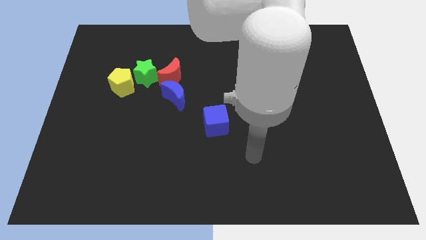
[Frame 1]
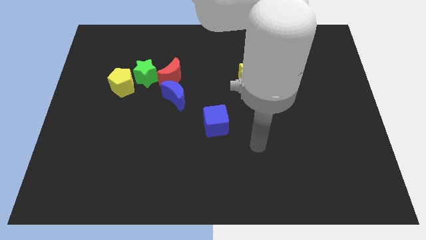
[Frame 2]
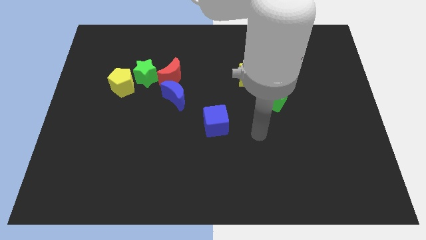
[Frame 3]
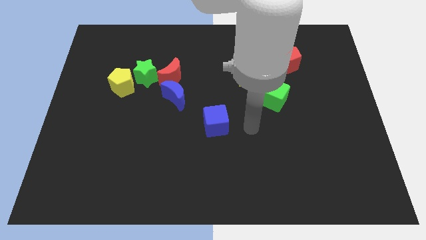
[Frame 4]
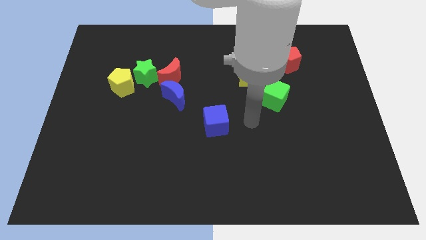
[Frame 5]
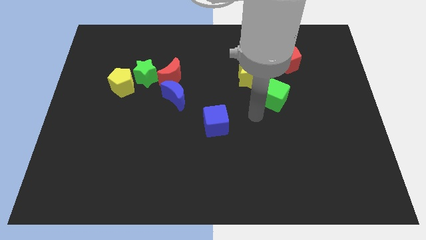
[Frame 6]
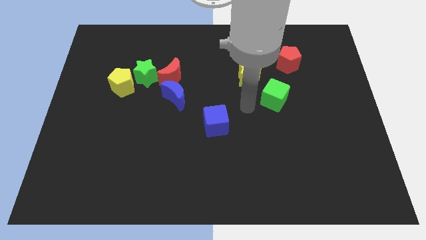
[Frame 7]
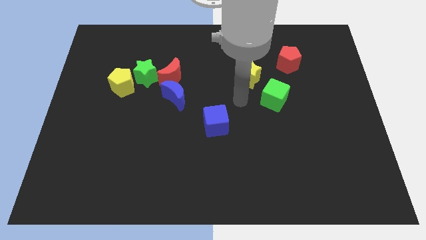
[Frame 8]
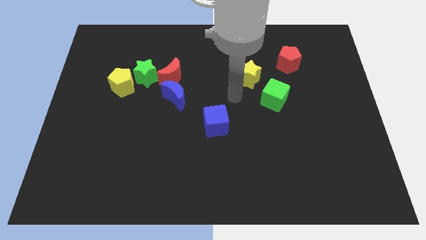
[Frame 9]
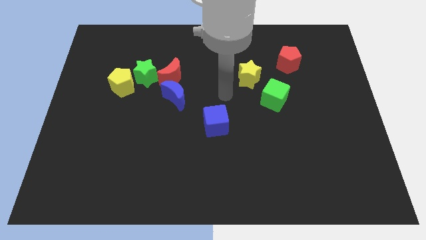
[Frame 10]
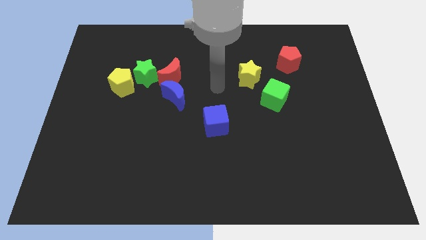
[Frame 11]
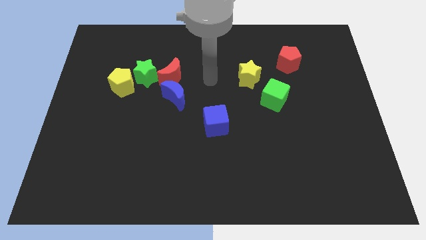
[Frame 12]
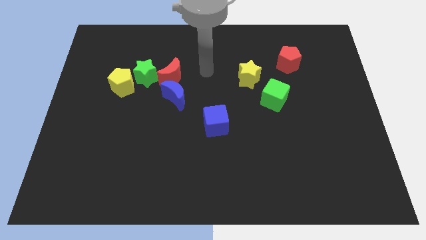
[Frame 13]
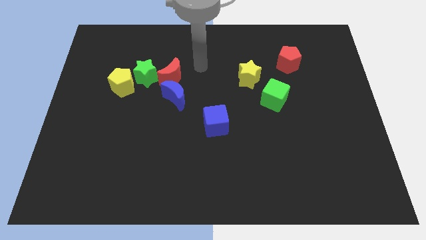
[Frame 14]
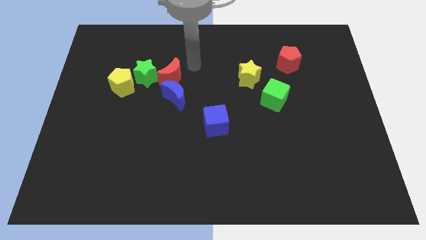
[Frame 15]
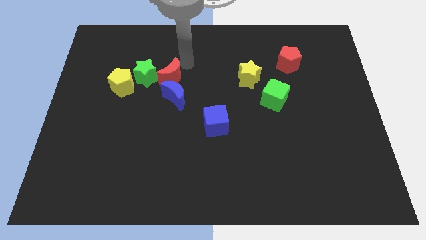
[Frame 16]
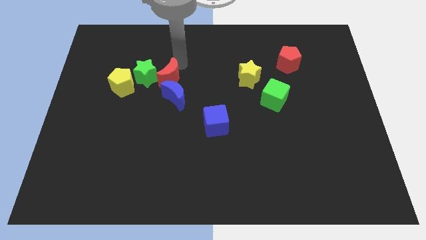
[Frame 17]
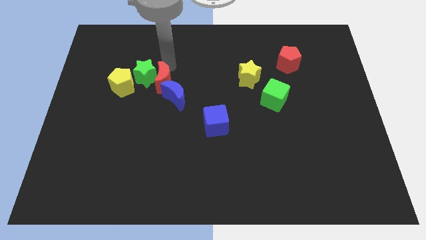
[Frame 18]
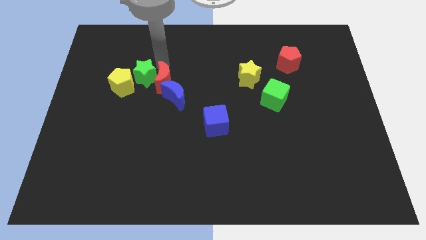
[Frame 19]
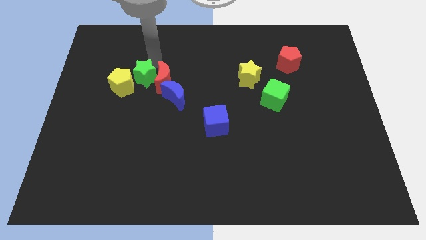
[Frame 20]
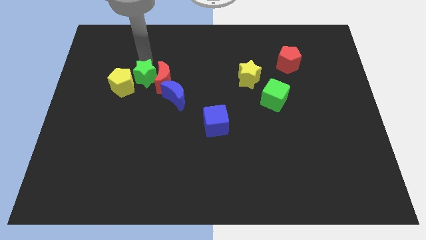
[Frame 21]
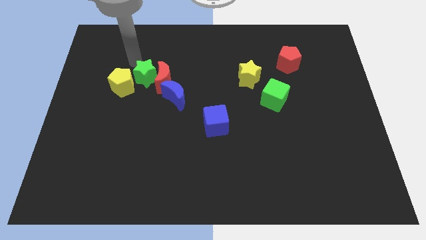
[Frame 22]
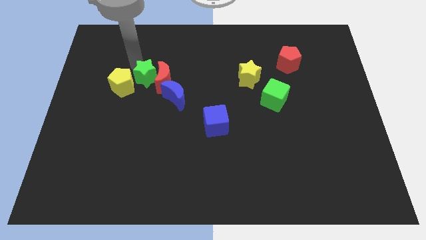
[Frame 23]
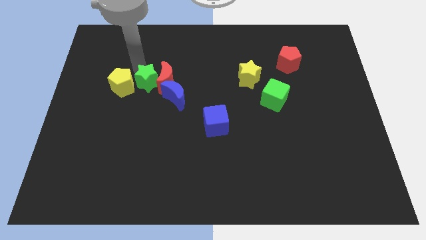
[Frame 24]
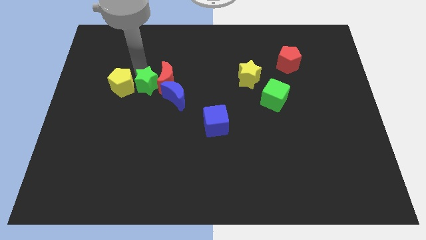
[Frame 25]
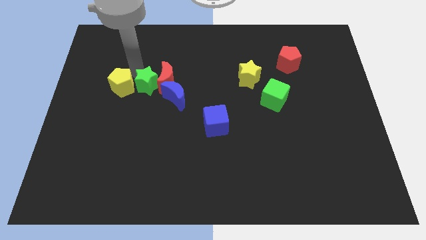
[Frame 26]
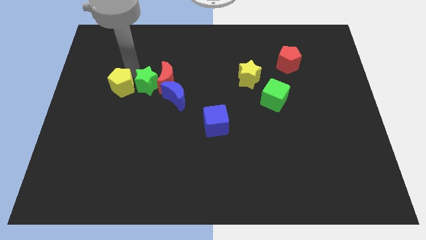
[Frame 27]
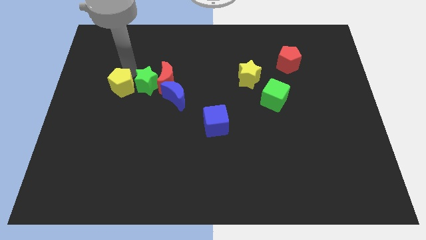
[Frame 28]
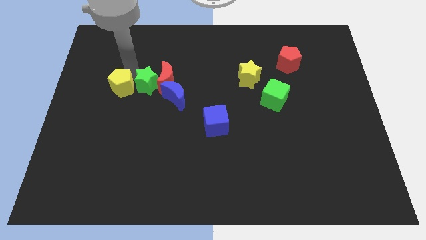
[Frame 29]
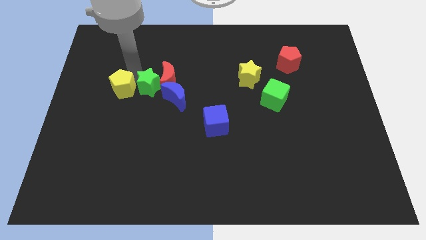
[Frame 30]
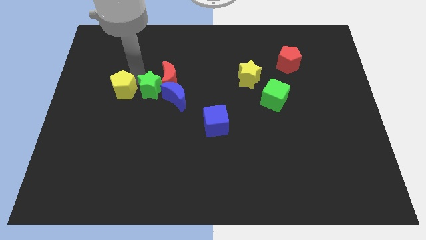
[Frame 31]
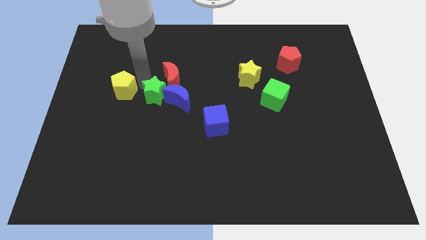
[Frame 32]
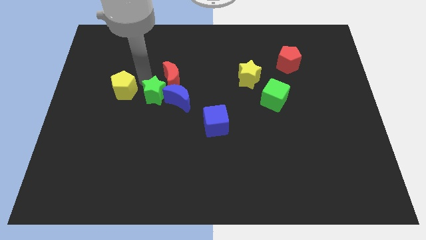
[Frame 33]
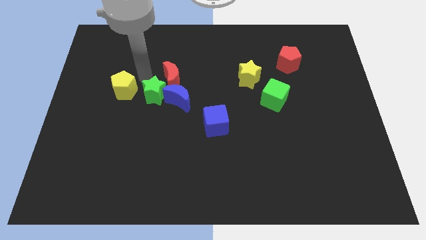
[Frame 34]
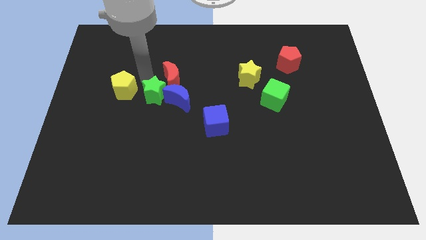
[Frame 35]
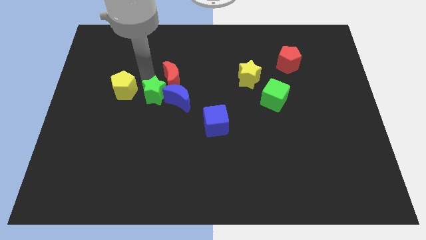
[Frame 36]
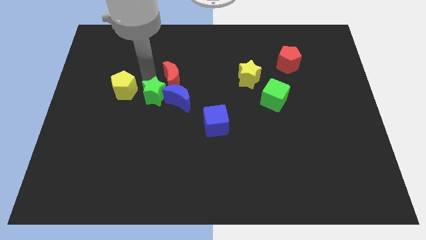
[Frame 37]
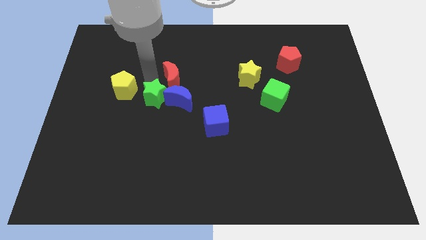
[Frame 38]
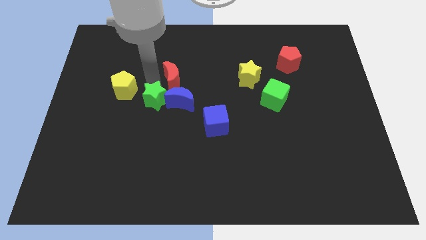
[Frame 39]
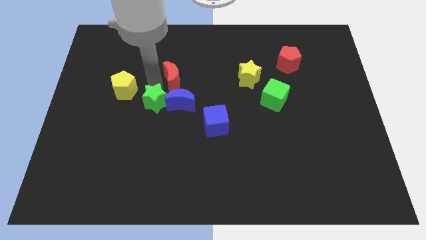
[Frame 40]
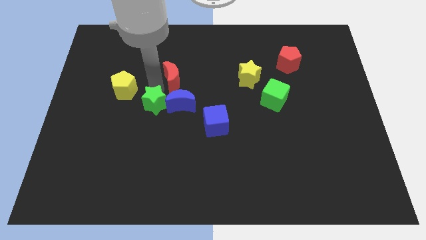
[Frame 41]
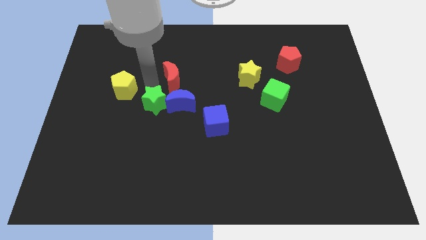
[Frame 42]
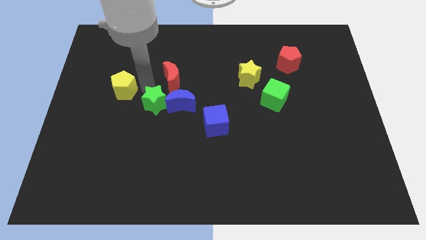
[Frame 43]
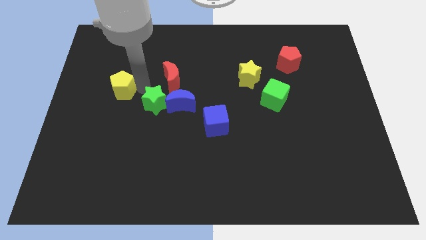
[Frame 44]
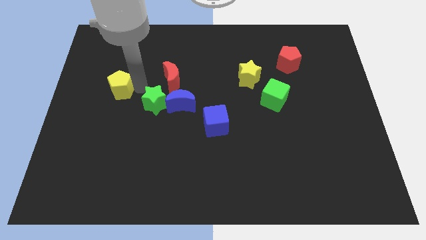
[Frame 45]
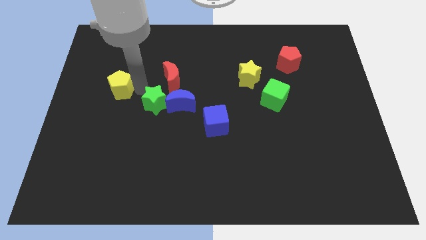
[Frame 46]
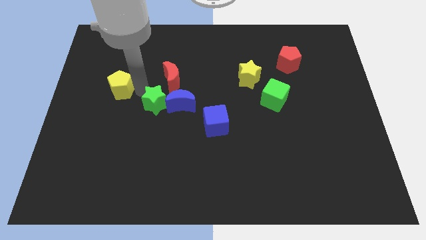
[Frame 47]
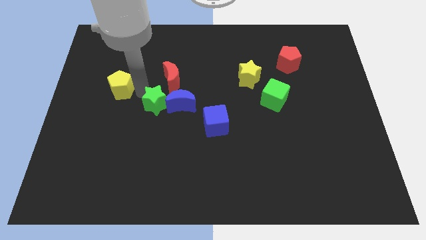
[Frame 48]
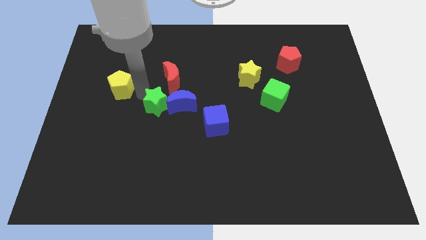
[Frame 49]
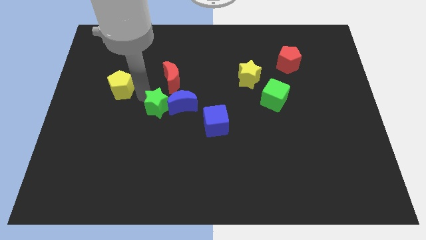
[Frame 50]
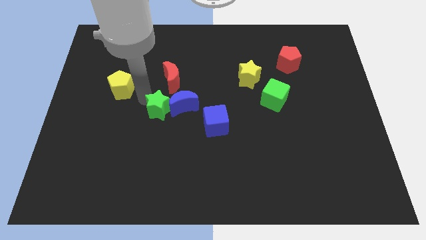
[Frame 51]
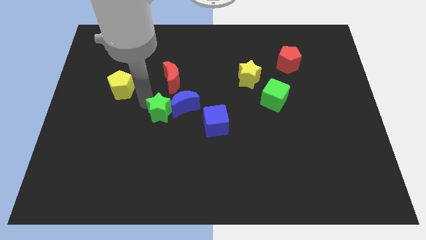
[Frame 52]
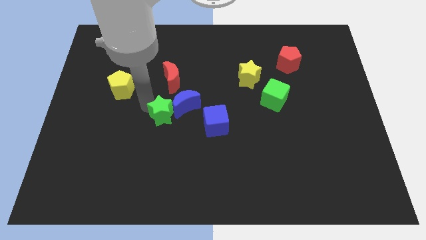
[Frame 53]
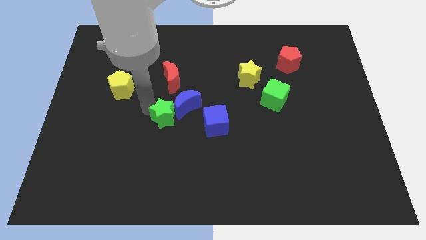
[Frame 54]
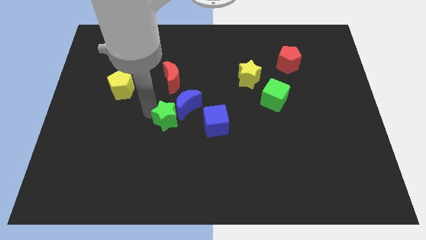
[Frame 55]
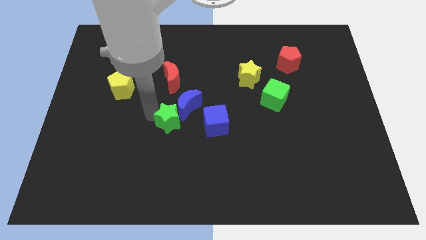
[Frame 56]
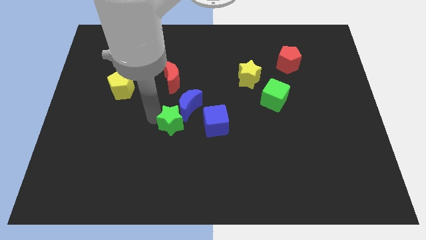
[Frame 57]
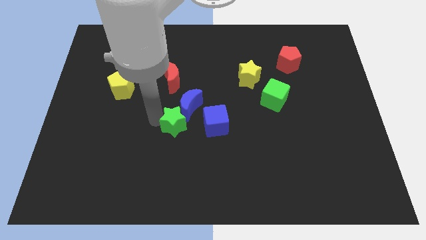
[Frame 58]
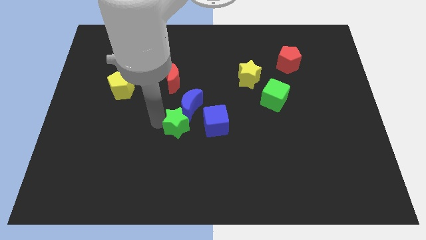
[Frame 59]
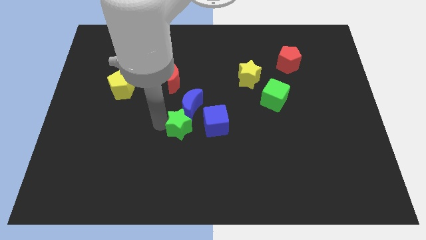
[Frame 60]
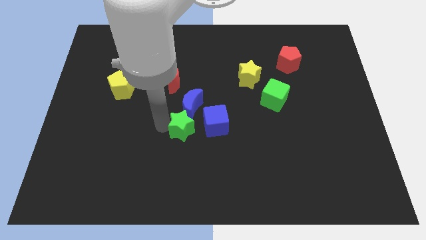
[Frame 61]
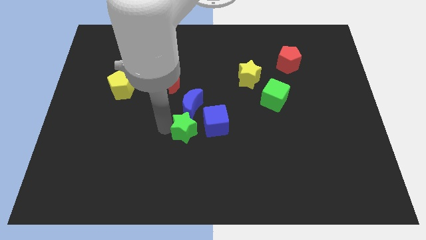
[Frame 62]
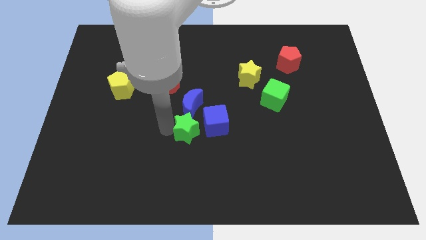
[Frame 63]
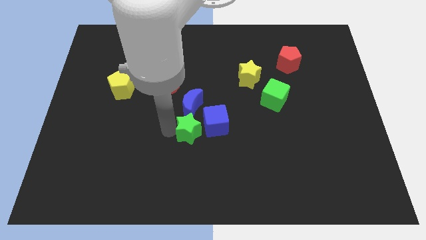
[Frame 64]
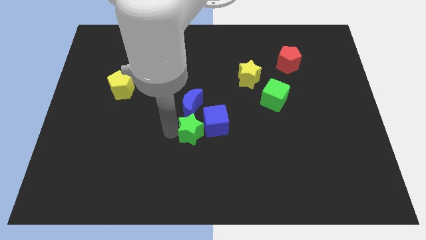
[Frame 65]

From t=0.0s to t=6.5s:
slide the green star next to the blue cube

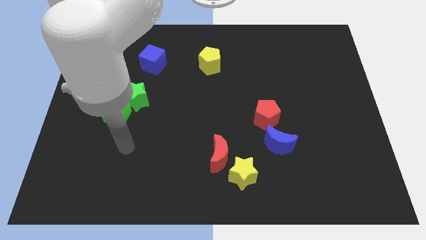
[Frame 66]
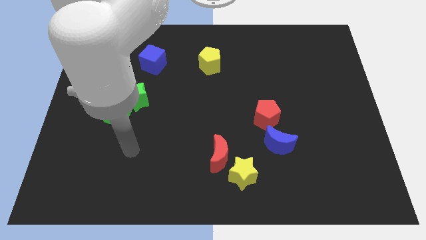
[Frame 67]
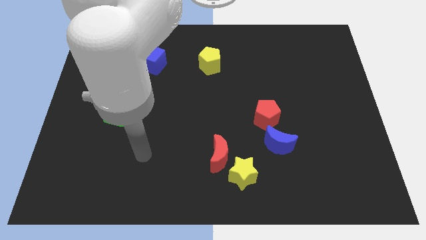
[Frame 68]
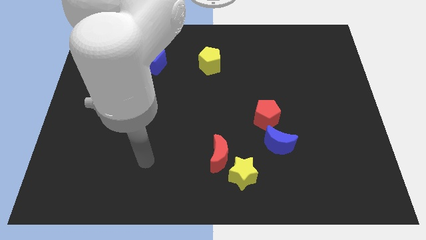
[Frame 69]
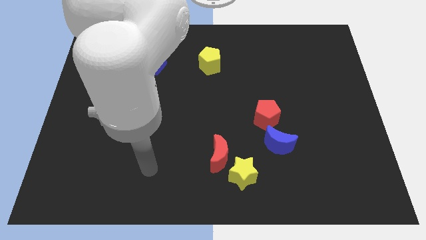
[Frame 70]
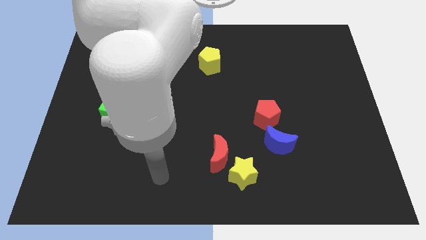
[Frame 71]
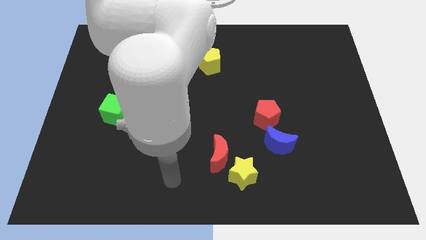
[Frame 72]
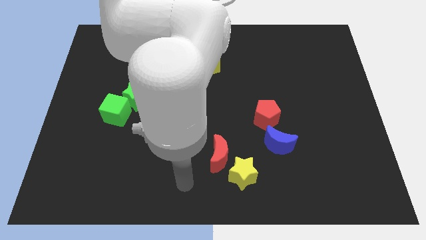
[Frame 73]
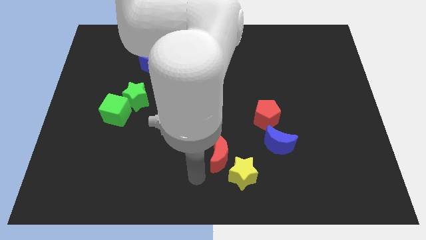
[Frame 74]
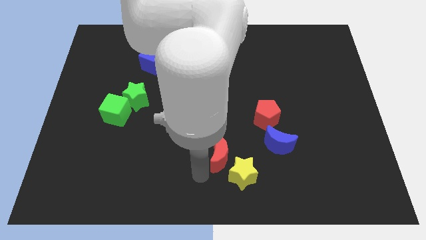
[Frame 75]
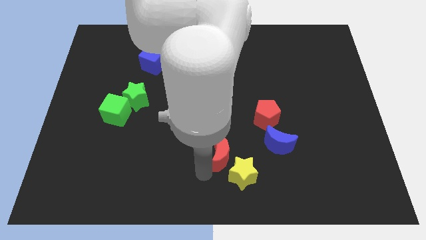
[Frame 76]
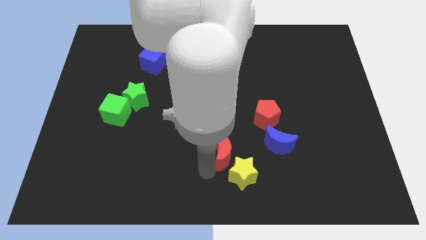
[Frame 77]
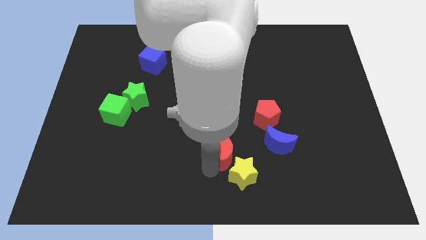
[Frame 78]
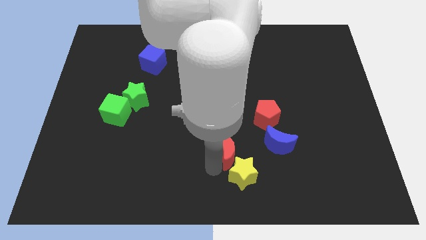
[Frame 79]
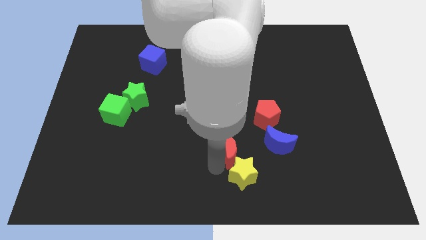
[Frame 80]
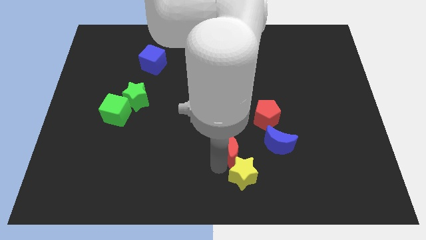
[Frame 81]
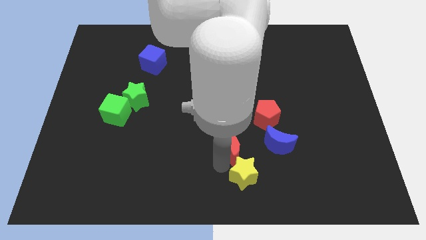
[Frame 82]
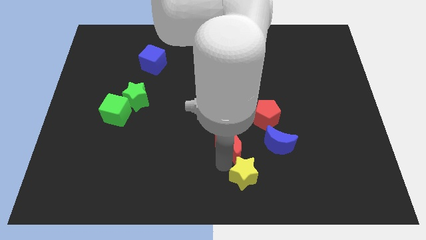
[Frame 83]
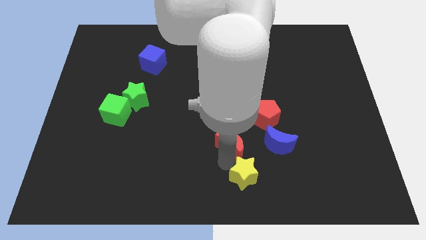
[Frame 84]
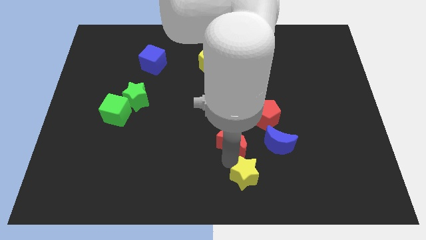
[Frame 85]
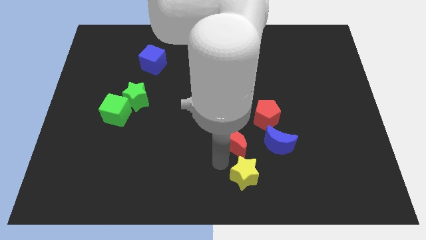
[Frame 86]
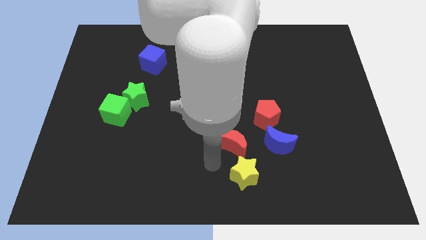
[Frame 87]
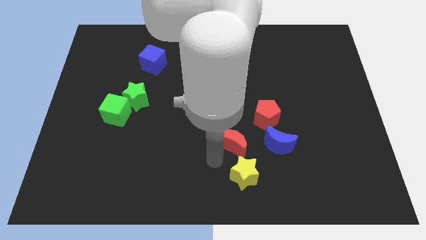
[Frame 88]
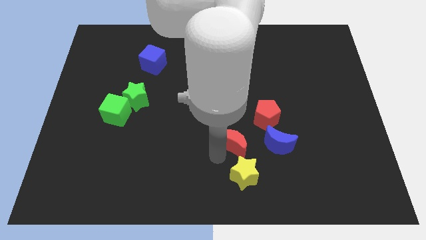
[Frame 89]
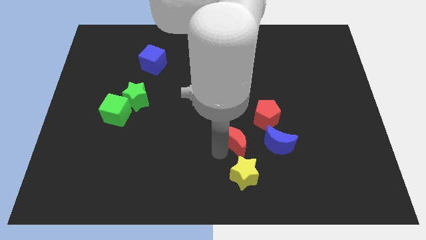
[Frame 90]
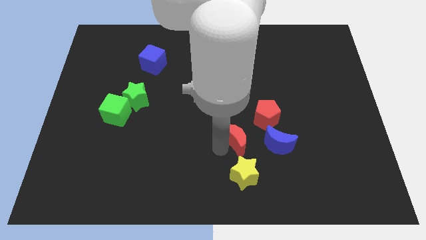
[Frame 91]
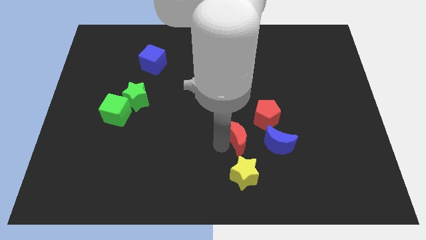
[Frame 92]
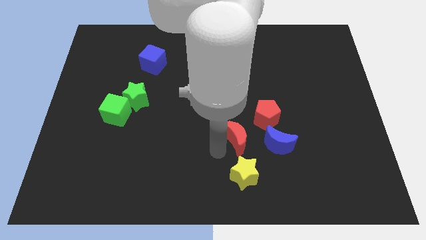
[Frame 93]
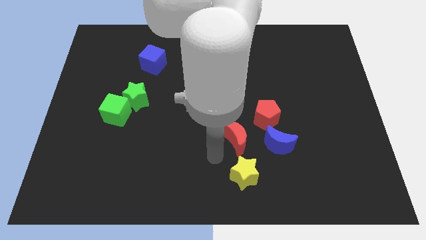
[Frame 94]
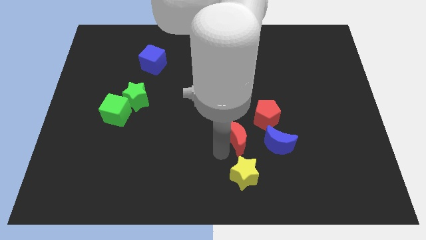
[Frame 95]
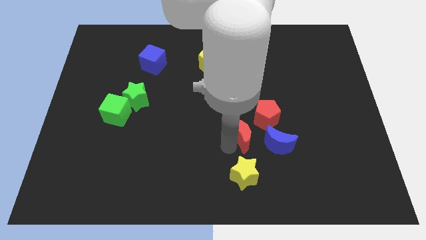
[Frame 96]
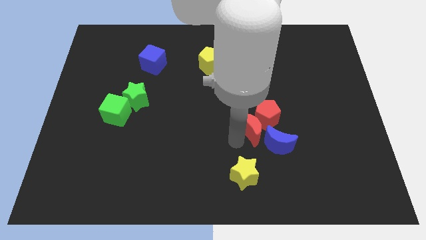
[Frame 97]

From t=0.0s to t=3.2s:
push the red moon close to the red pentagon
